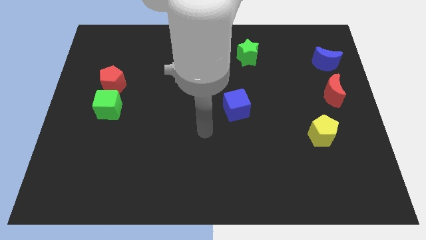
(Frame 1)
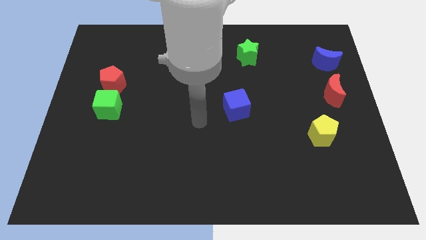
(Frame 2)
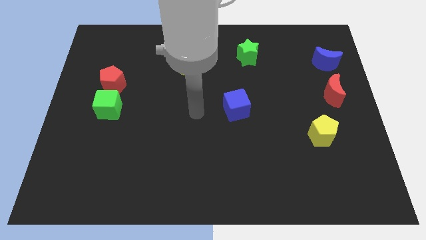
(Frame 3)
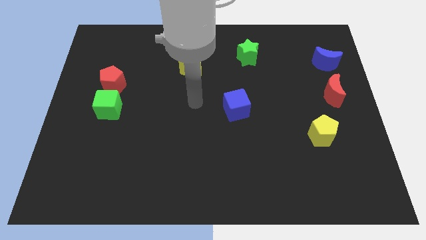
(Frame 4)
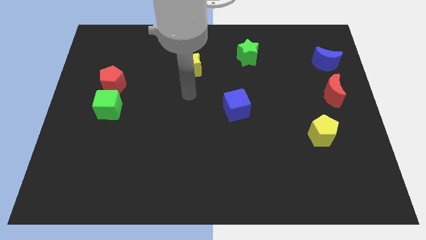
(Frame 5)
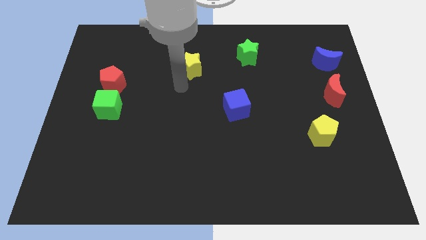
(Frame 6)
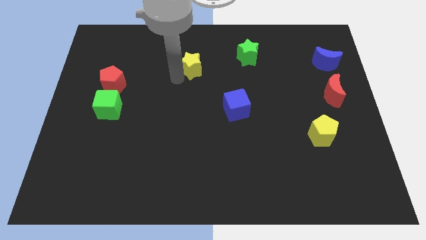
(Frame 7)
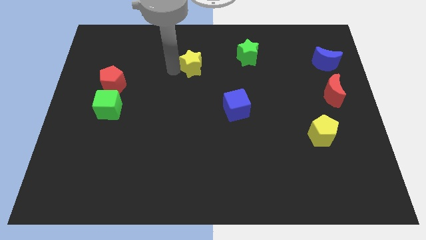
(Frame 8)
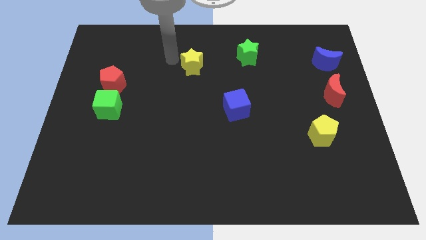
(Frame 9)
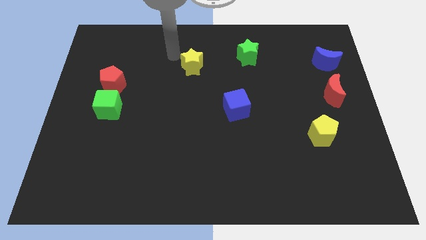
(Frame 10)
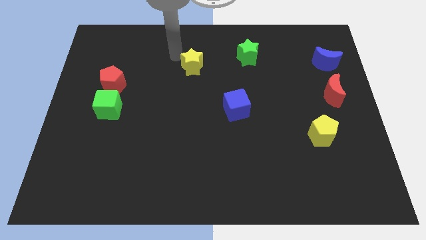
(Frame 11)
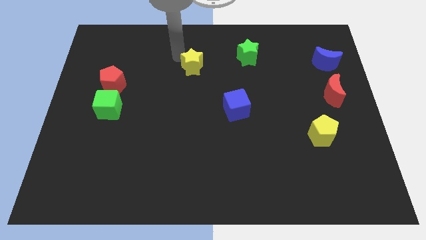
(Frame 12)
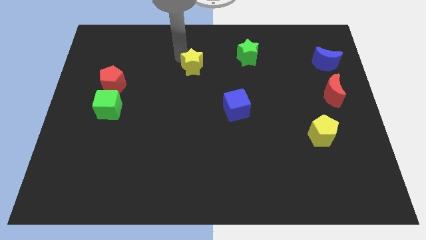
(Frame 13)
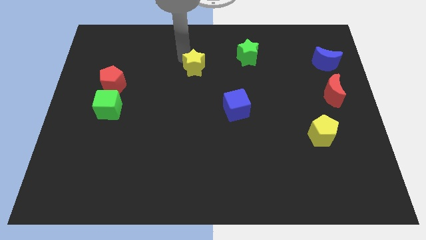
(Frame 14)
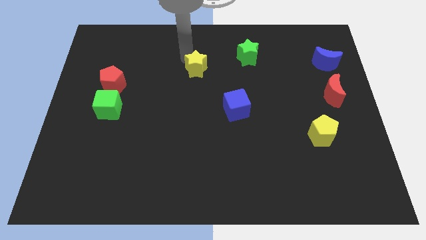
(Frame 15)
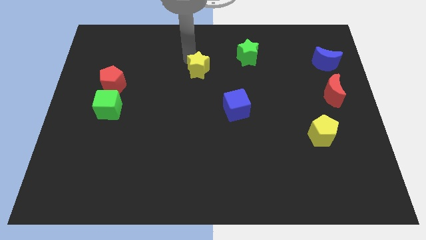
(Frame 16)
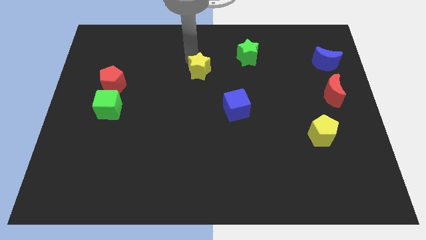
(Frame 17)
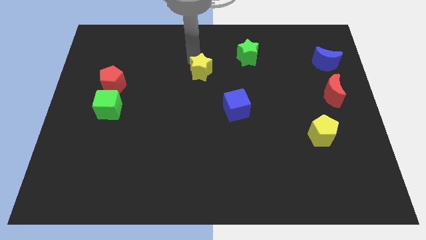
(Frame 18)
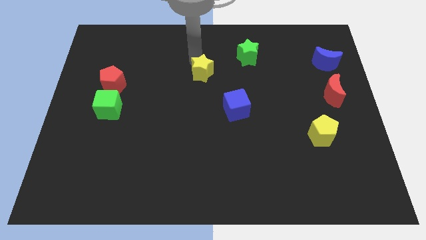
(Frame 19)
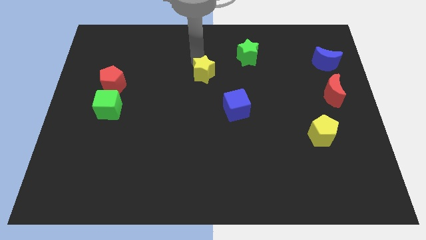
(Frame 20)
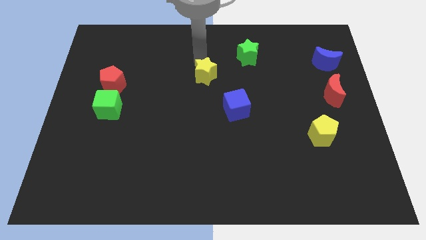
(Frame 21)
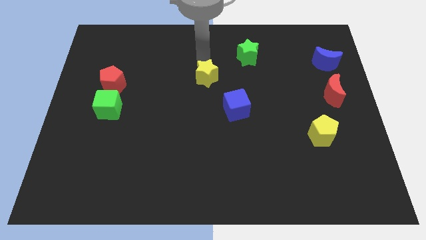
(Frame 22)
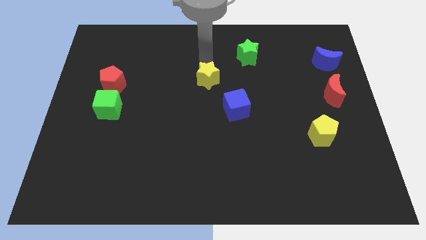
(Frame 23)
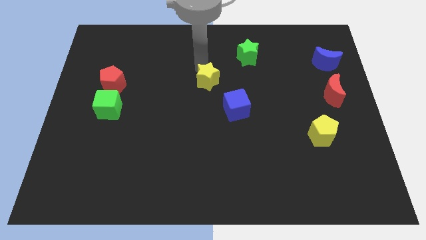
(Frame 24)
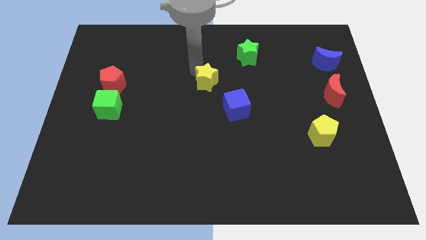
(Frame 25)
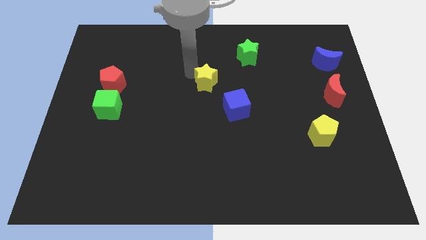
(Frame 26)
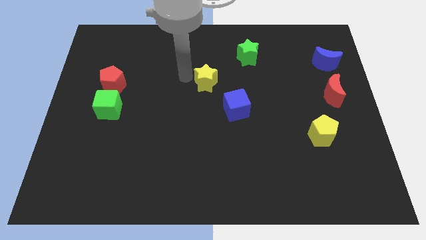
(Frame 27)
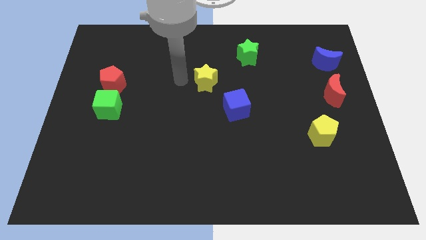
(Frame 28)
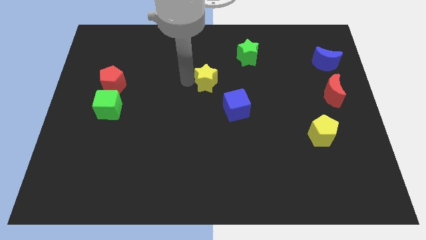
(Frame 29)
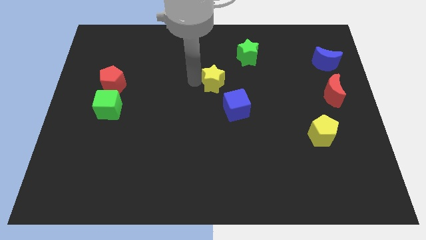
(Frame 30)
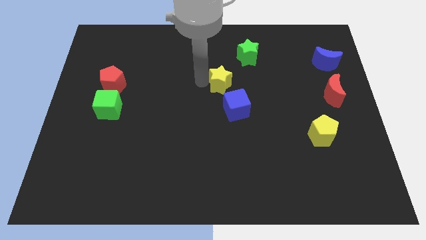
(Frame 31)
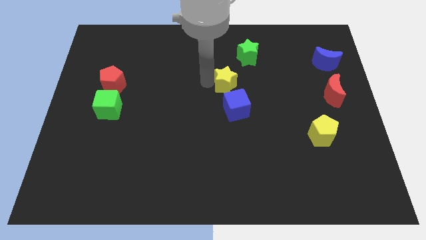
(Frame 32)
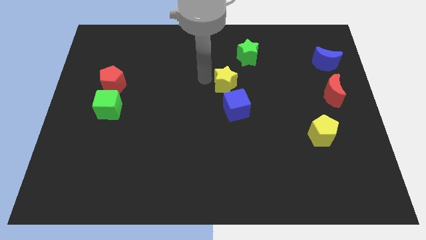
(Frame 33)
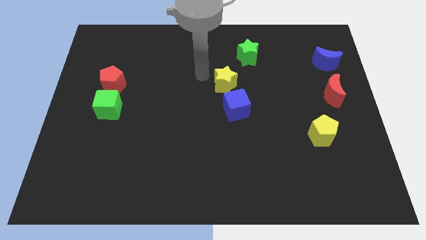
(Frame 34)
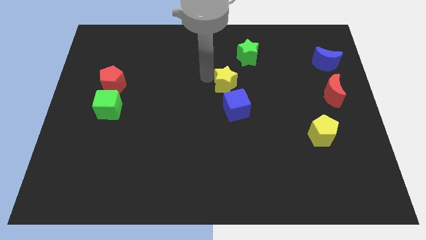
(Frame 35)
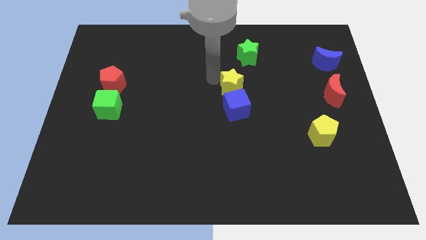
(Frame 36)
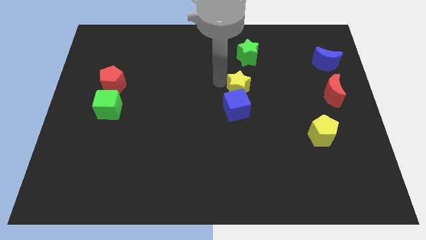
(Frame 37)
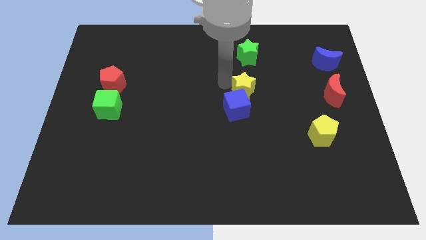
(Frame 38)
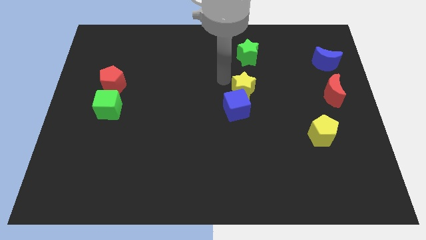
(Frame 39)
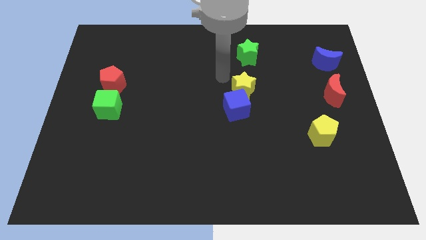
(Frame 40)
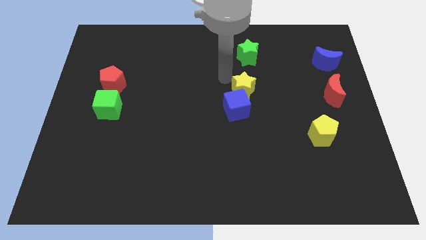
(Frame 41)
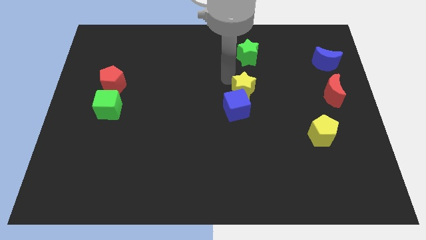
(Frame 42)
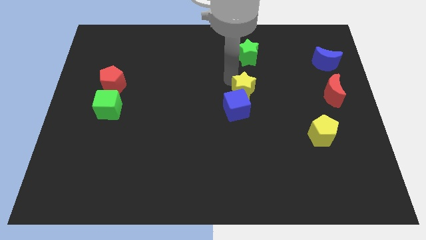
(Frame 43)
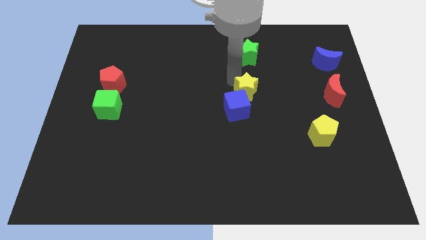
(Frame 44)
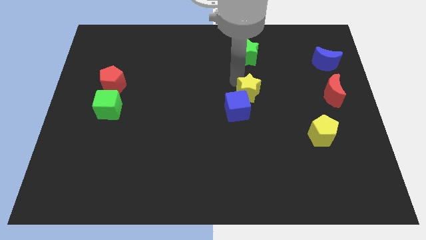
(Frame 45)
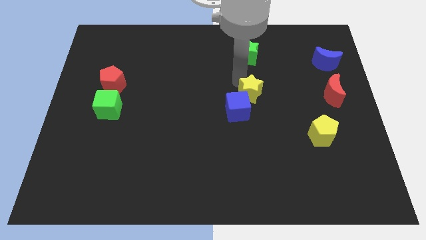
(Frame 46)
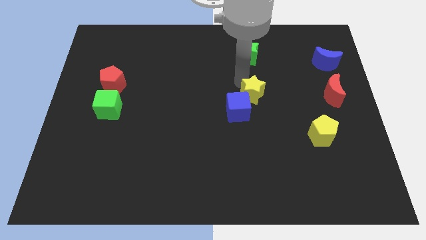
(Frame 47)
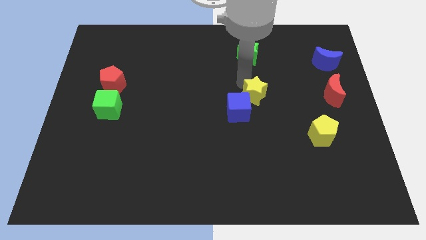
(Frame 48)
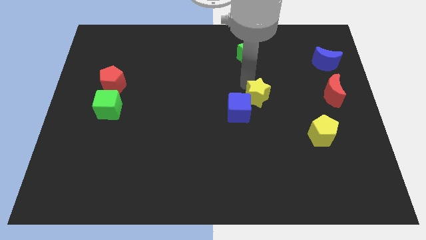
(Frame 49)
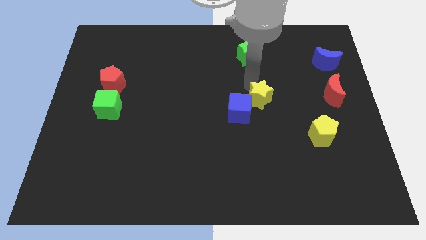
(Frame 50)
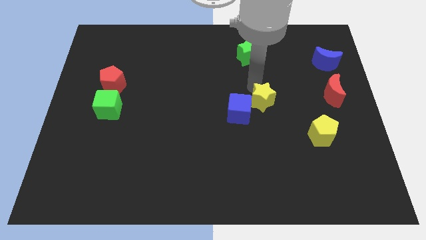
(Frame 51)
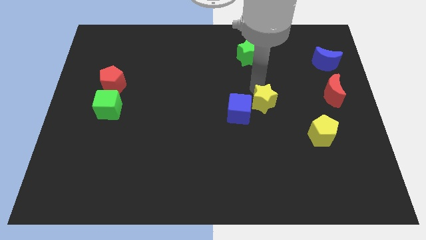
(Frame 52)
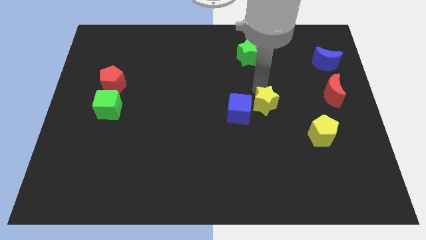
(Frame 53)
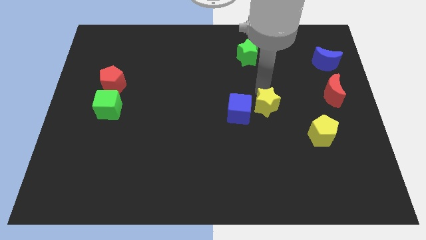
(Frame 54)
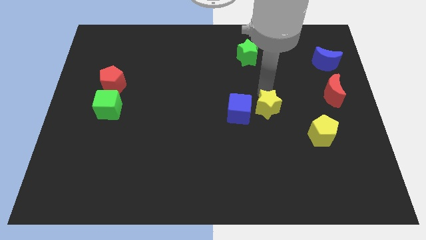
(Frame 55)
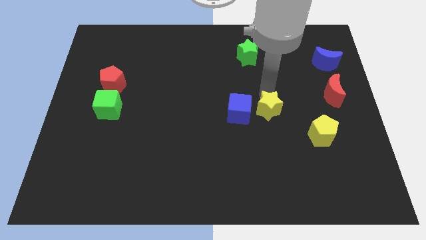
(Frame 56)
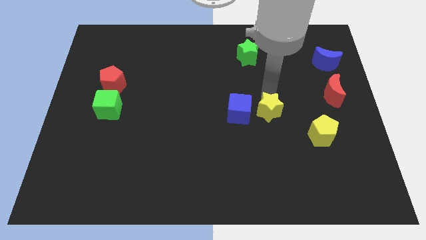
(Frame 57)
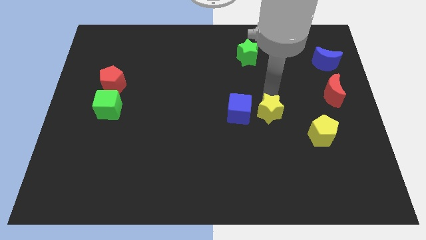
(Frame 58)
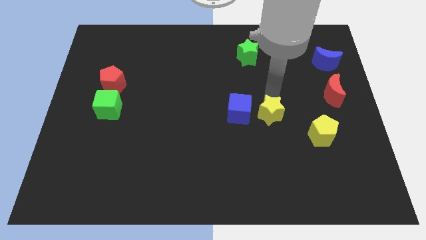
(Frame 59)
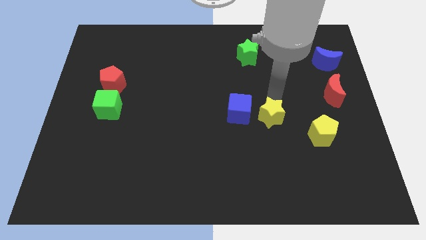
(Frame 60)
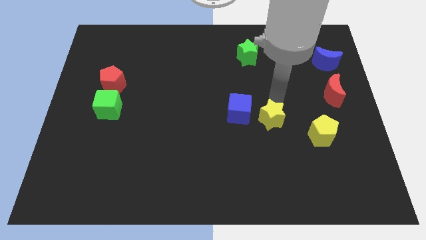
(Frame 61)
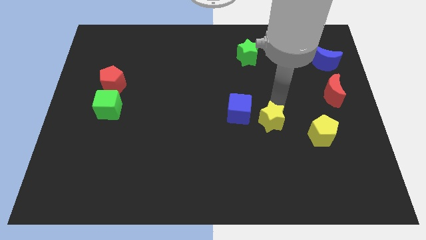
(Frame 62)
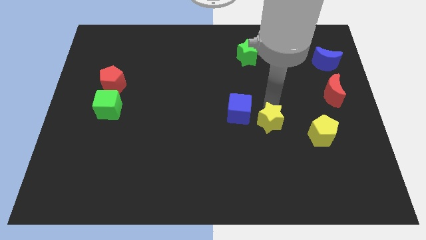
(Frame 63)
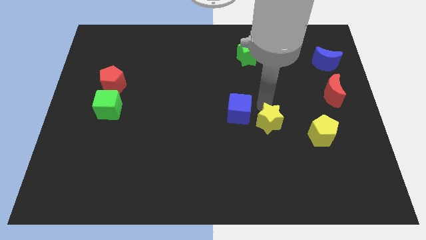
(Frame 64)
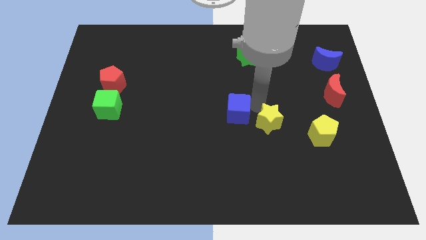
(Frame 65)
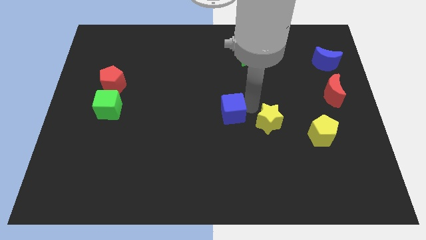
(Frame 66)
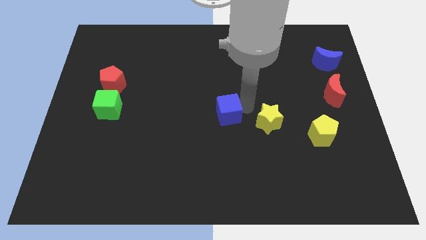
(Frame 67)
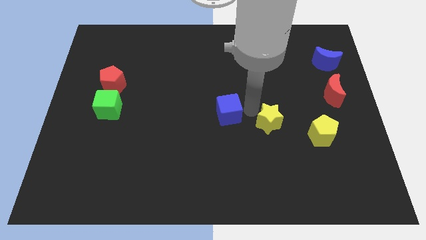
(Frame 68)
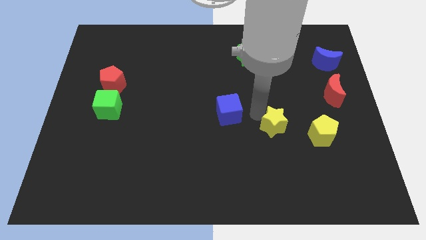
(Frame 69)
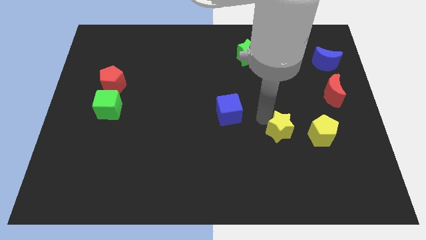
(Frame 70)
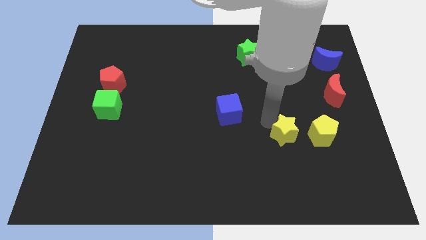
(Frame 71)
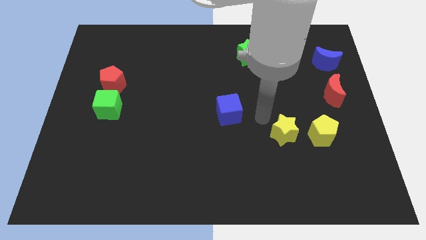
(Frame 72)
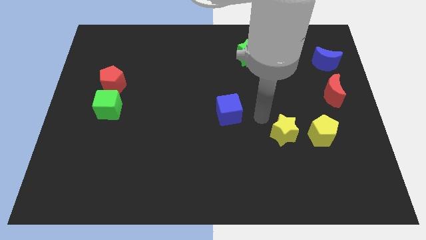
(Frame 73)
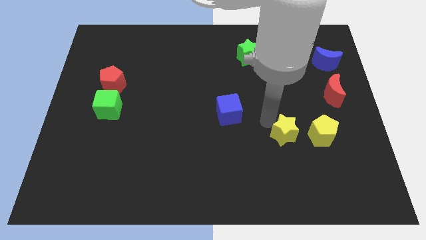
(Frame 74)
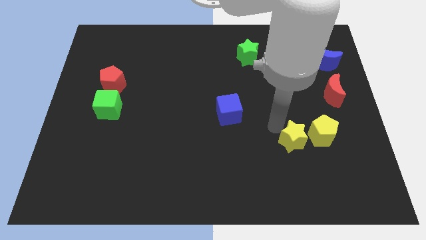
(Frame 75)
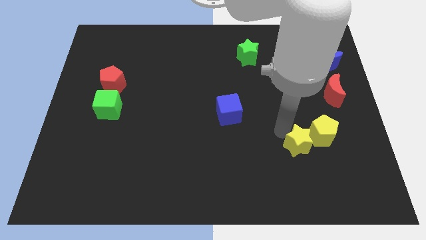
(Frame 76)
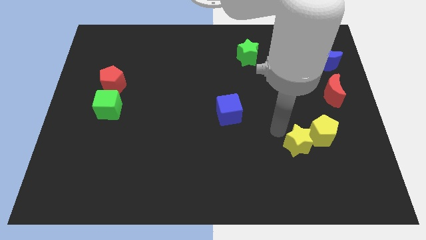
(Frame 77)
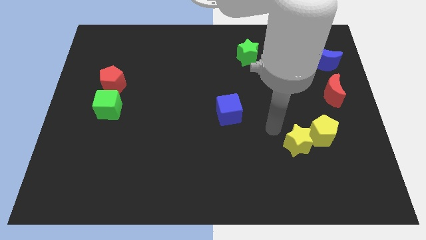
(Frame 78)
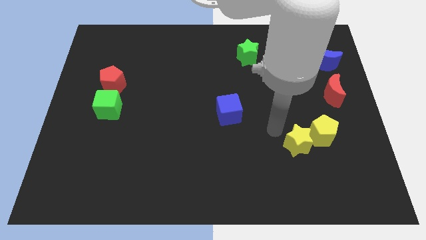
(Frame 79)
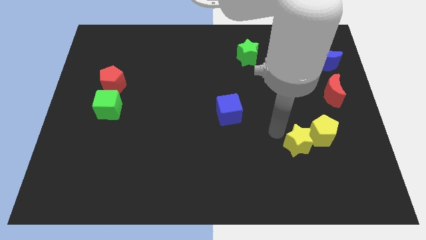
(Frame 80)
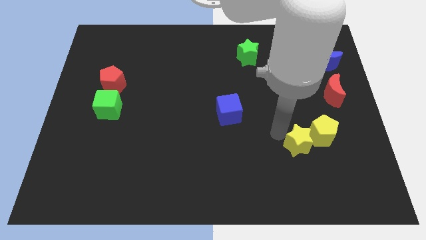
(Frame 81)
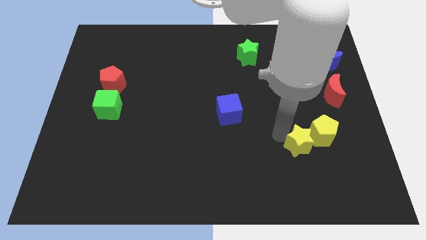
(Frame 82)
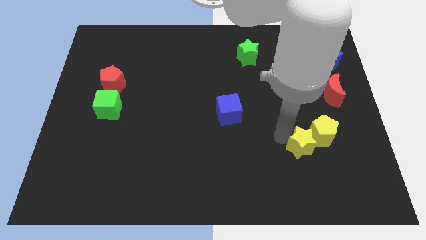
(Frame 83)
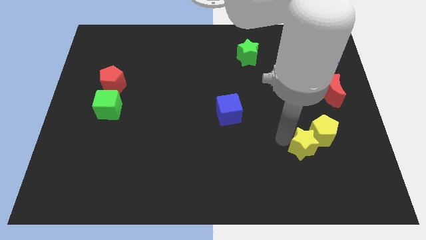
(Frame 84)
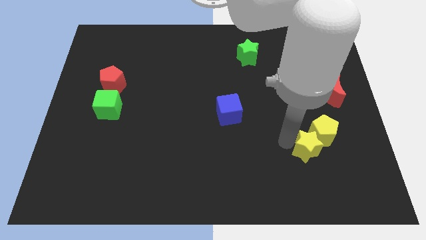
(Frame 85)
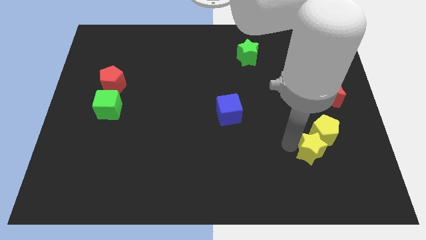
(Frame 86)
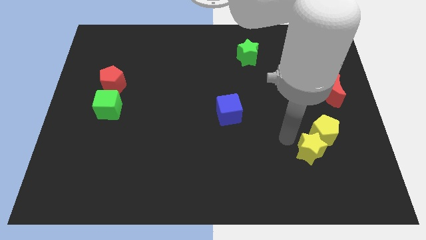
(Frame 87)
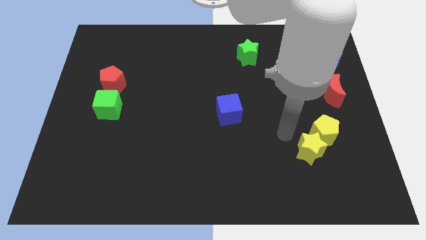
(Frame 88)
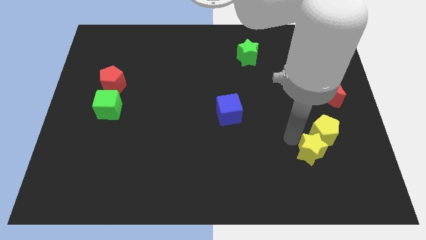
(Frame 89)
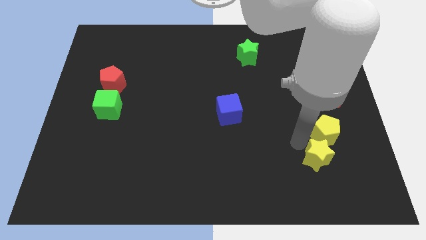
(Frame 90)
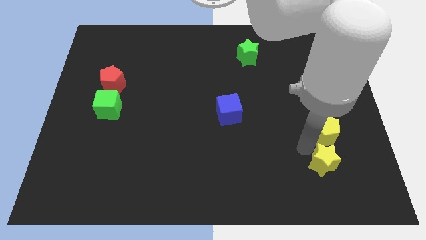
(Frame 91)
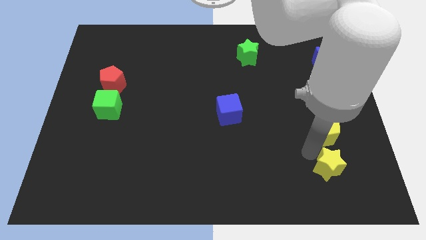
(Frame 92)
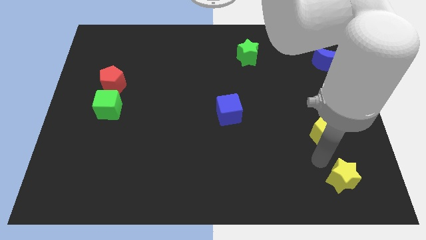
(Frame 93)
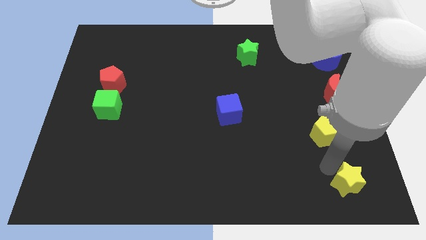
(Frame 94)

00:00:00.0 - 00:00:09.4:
slide the yellow star to the lower right corner
